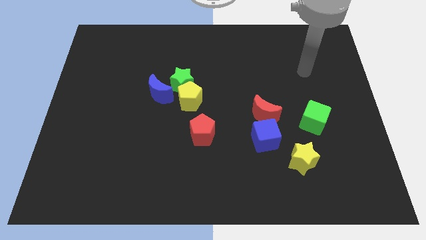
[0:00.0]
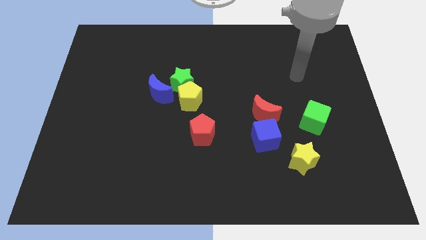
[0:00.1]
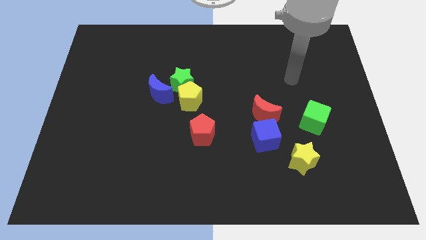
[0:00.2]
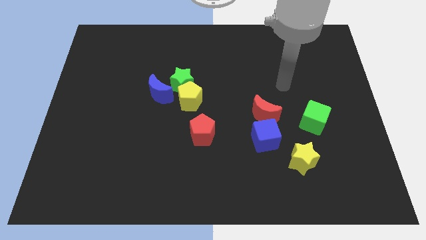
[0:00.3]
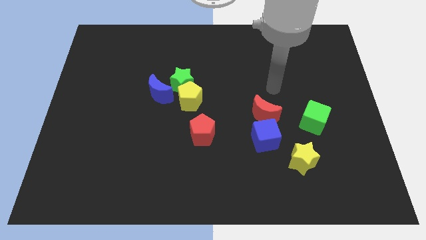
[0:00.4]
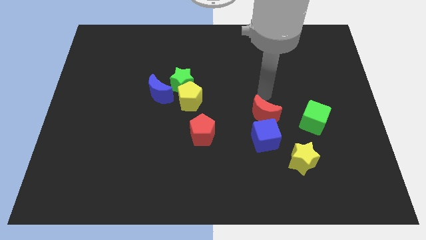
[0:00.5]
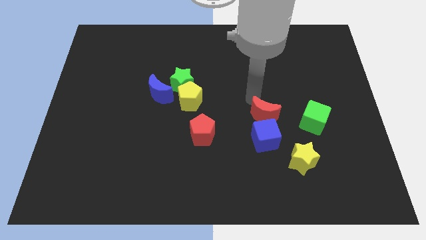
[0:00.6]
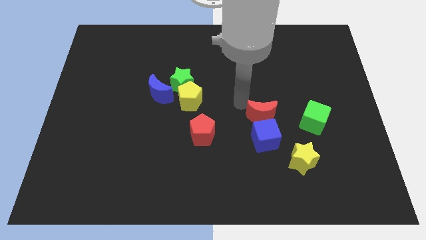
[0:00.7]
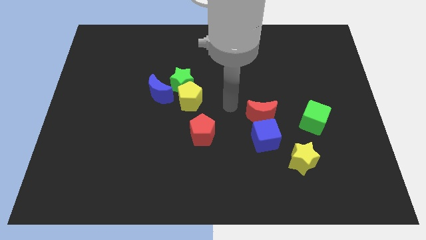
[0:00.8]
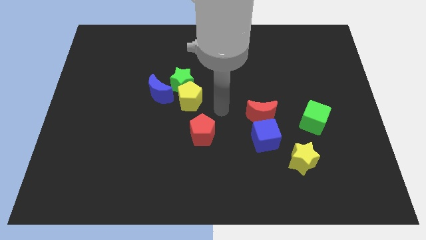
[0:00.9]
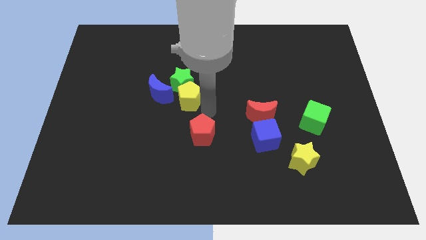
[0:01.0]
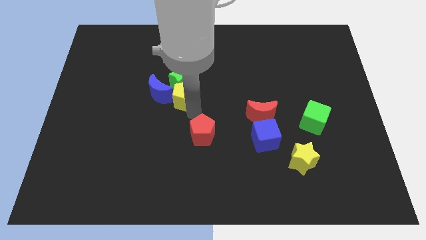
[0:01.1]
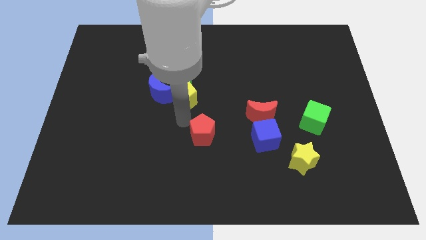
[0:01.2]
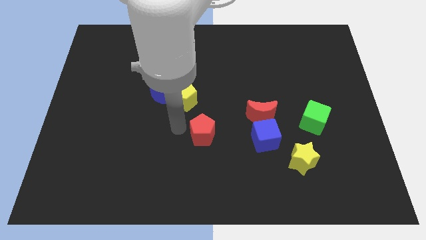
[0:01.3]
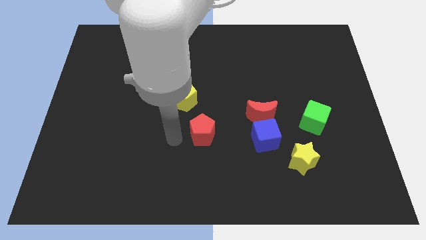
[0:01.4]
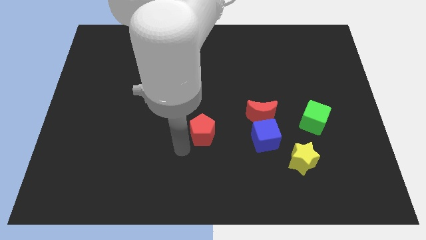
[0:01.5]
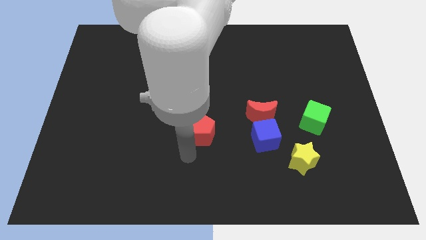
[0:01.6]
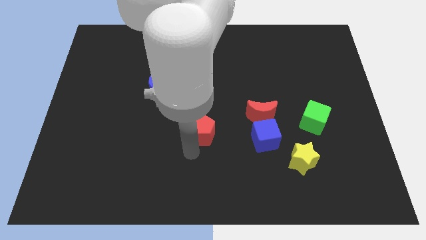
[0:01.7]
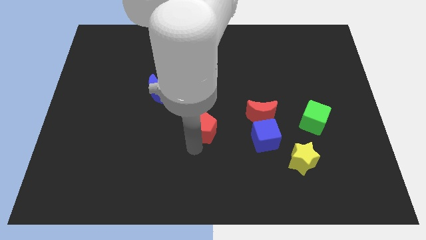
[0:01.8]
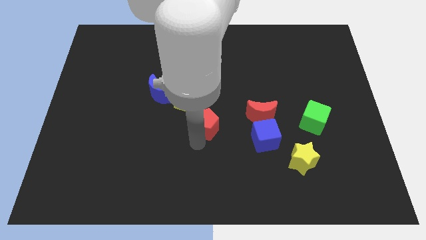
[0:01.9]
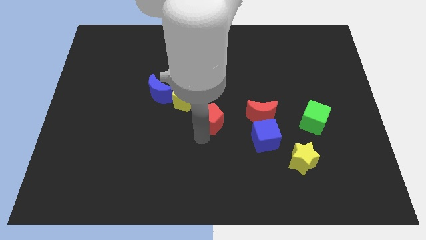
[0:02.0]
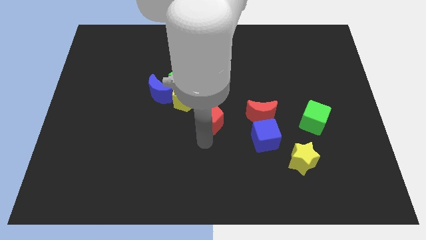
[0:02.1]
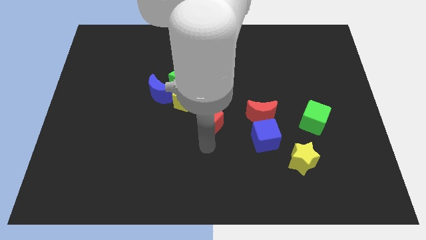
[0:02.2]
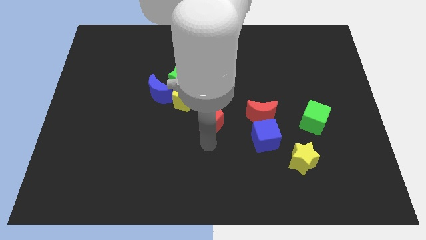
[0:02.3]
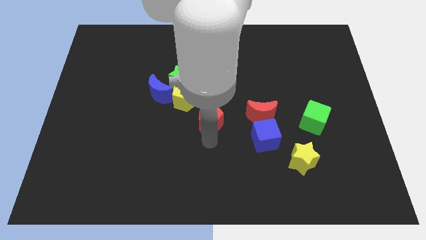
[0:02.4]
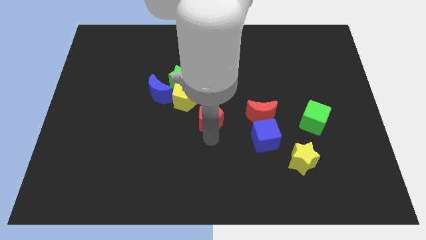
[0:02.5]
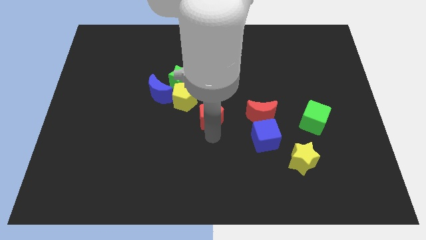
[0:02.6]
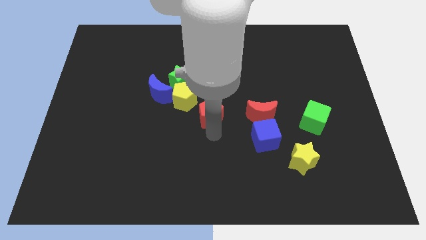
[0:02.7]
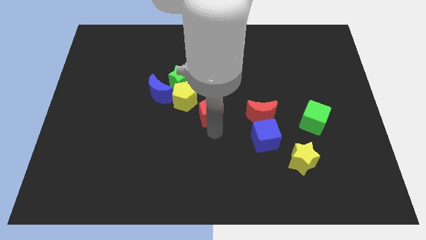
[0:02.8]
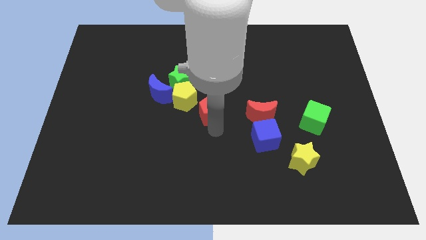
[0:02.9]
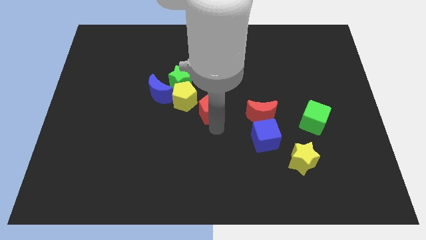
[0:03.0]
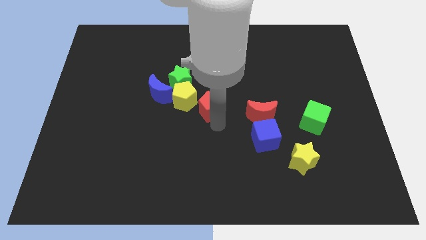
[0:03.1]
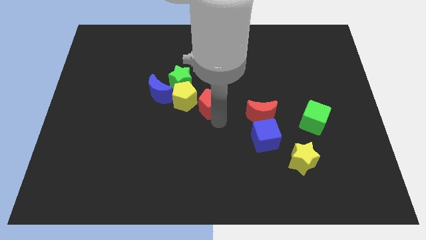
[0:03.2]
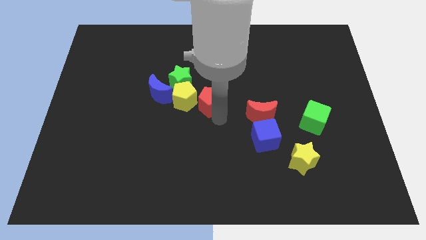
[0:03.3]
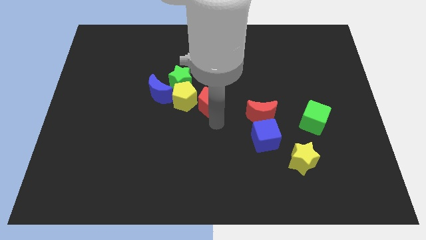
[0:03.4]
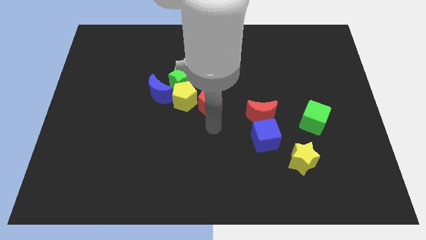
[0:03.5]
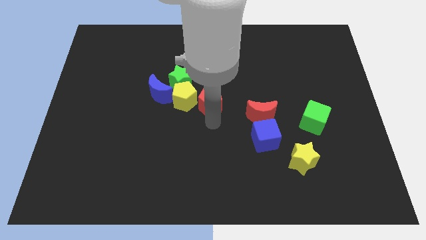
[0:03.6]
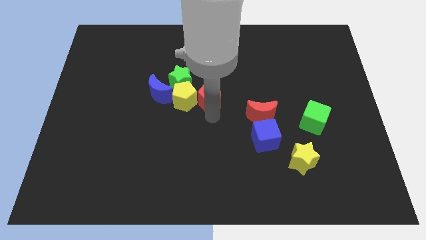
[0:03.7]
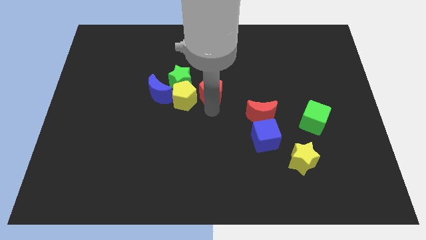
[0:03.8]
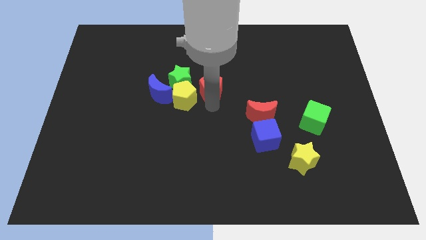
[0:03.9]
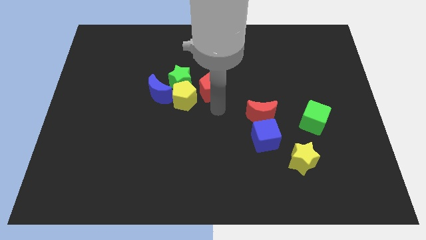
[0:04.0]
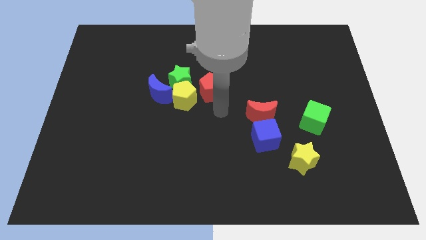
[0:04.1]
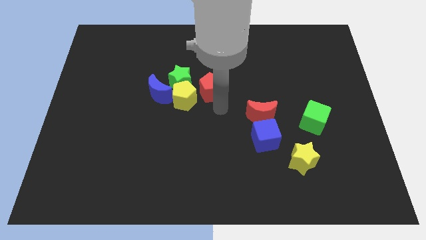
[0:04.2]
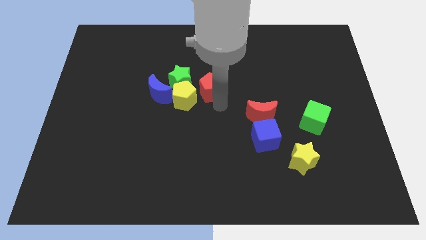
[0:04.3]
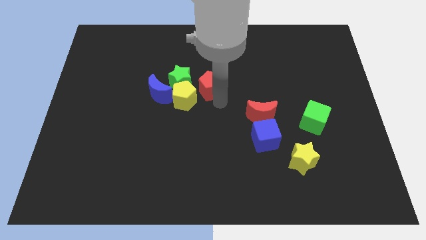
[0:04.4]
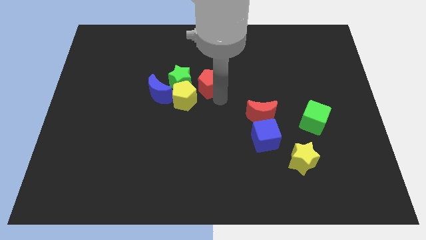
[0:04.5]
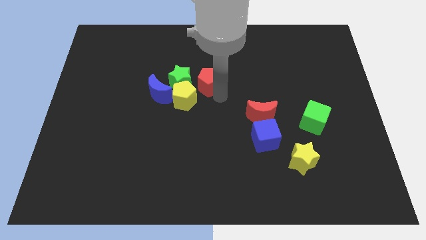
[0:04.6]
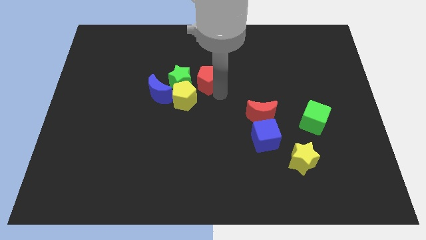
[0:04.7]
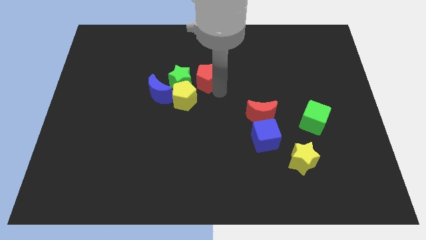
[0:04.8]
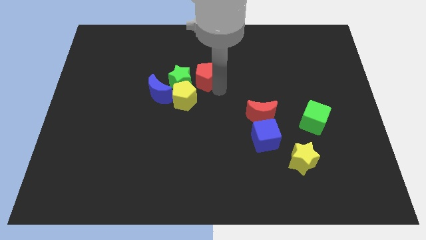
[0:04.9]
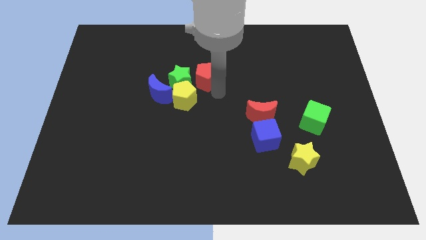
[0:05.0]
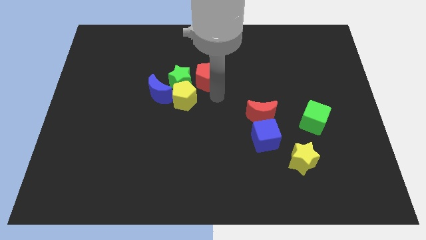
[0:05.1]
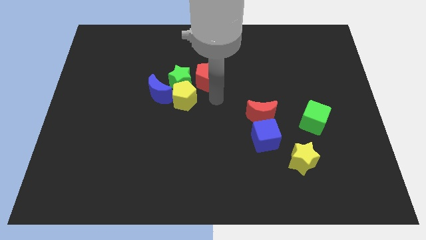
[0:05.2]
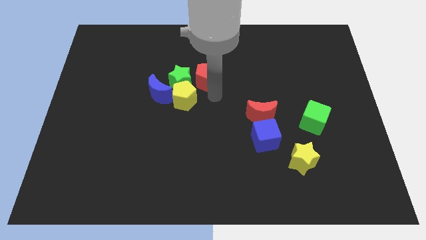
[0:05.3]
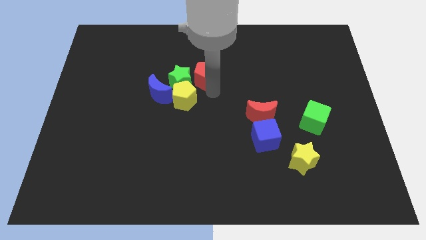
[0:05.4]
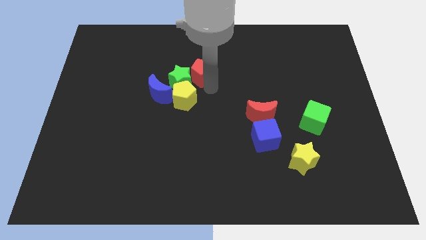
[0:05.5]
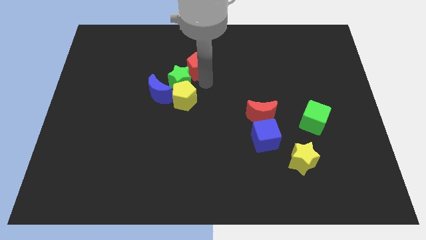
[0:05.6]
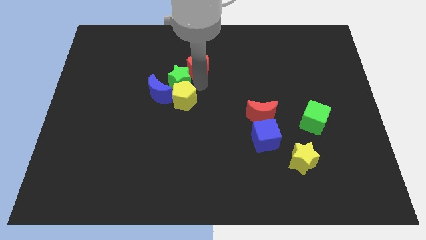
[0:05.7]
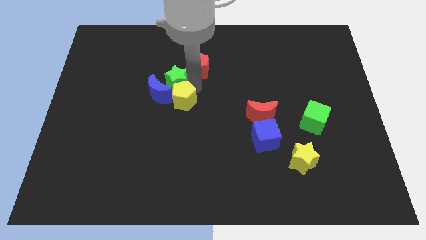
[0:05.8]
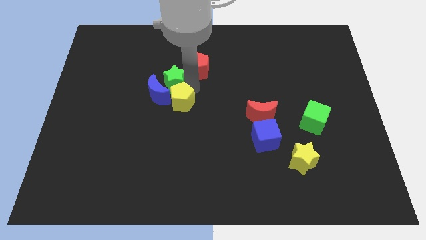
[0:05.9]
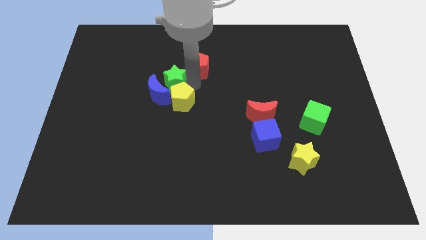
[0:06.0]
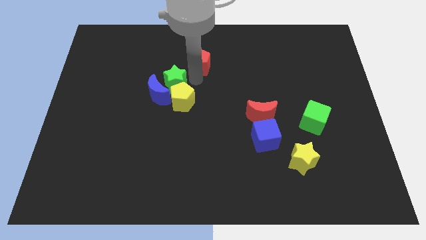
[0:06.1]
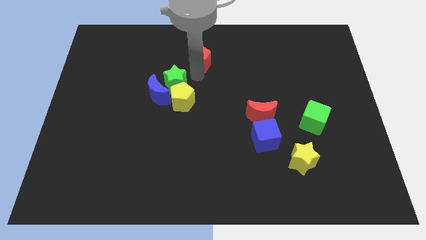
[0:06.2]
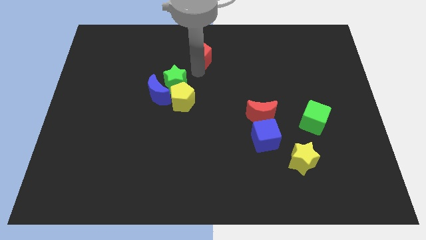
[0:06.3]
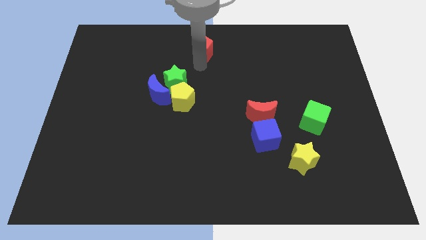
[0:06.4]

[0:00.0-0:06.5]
move the red pentagon to the top
